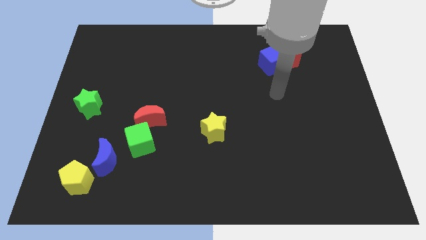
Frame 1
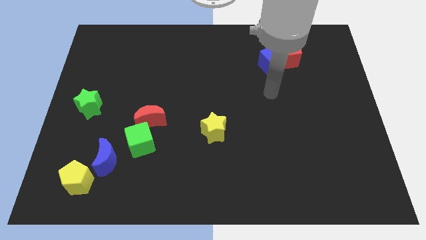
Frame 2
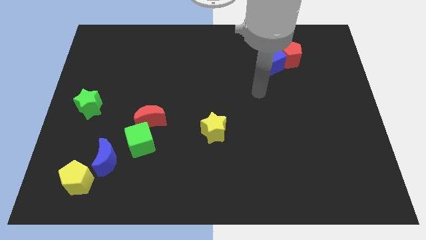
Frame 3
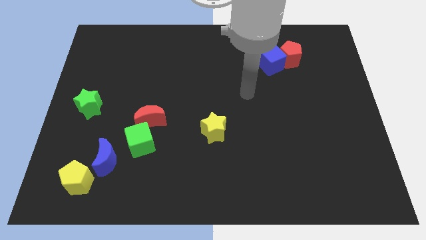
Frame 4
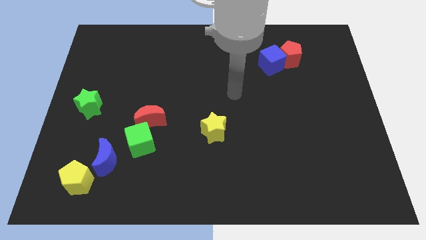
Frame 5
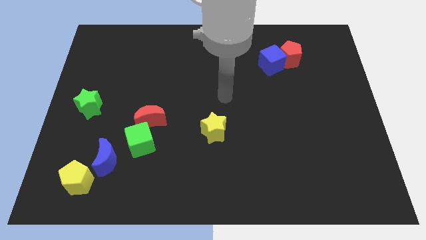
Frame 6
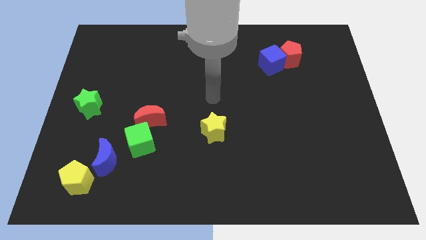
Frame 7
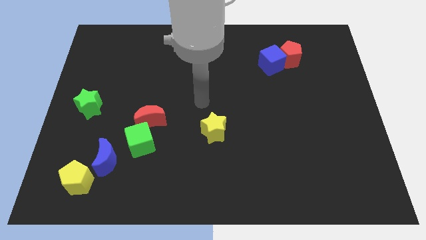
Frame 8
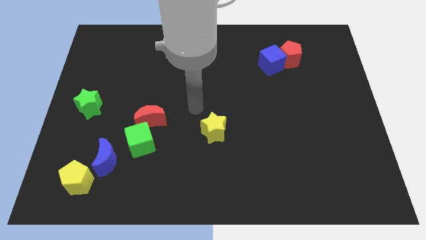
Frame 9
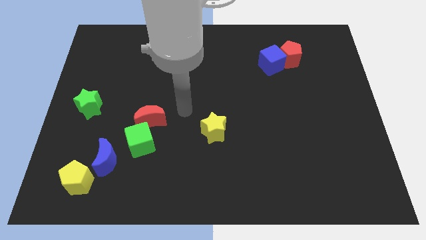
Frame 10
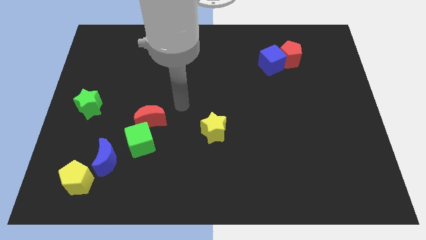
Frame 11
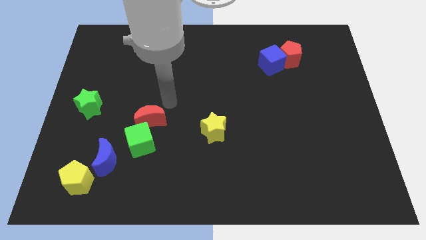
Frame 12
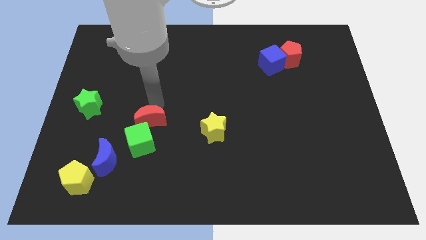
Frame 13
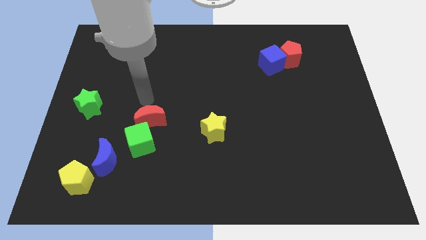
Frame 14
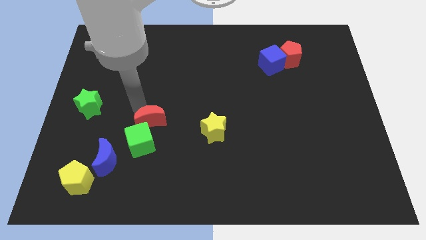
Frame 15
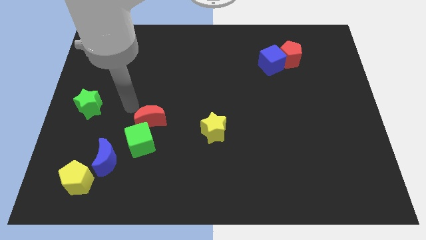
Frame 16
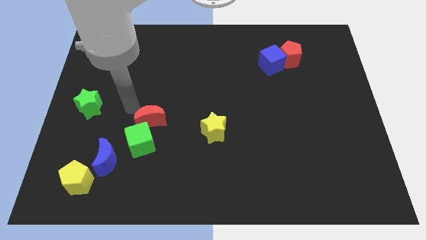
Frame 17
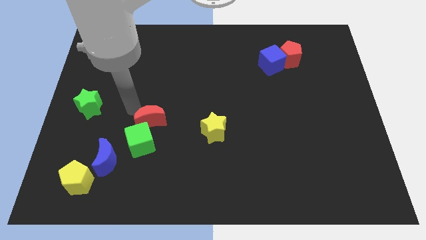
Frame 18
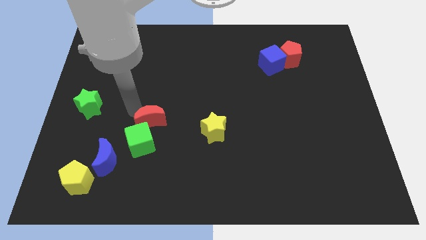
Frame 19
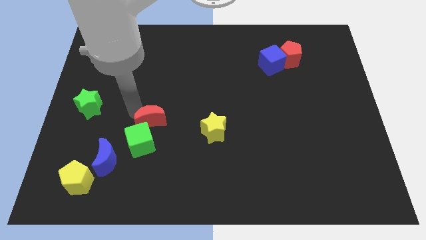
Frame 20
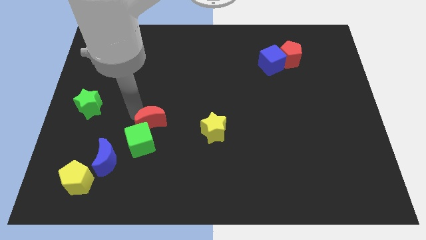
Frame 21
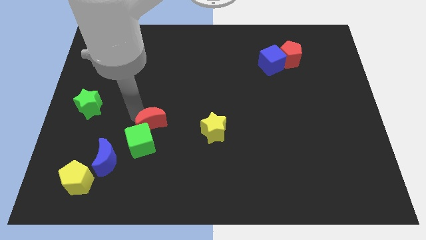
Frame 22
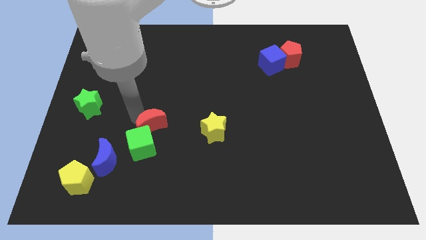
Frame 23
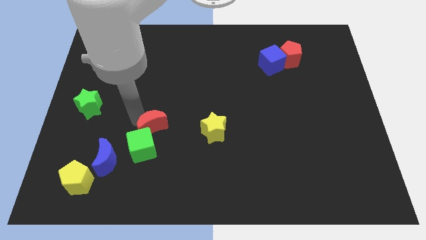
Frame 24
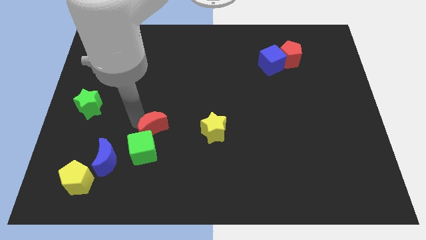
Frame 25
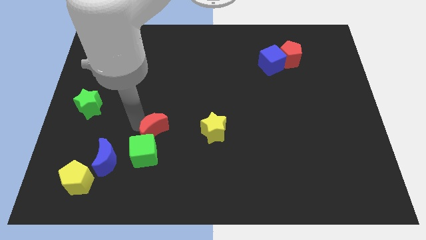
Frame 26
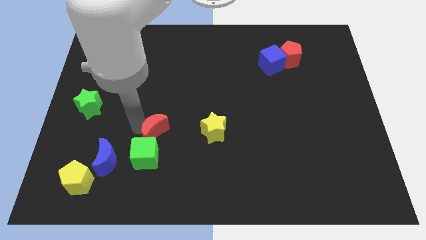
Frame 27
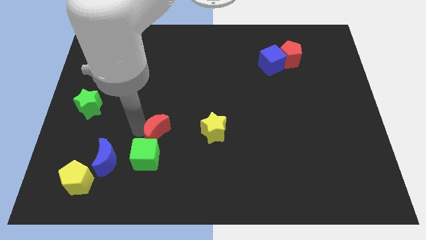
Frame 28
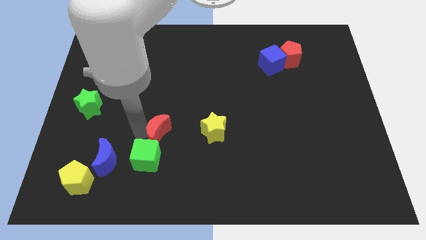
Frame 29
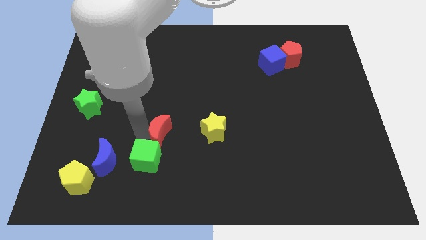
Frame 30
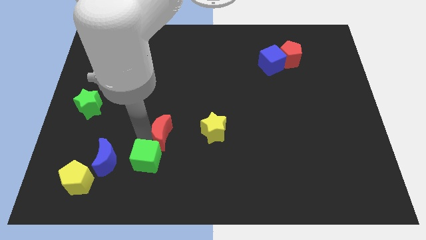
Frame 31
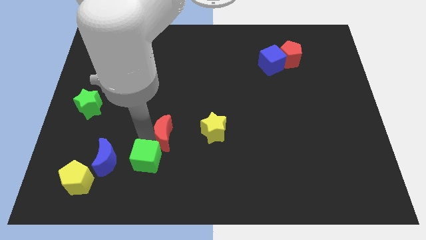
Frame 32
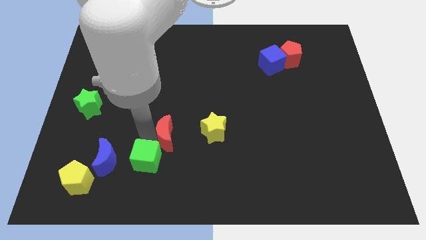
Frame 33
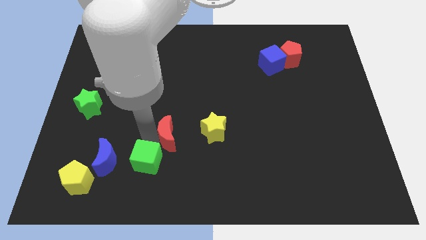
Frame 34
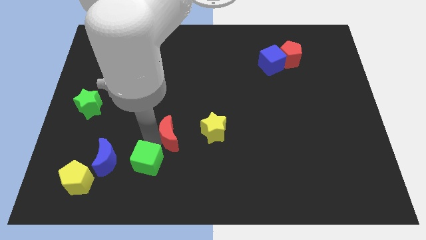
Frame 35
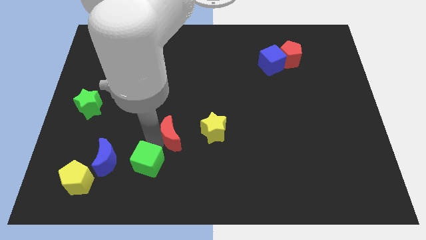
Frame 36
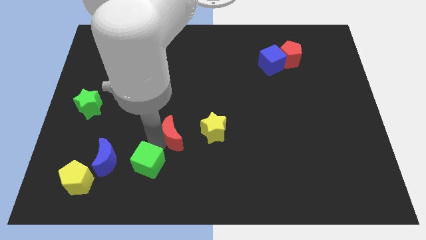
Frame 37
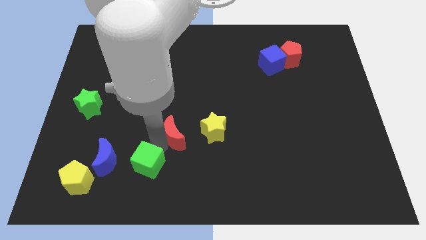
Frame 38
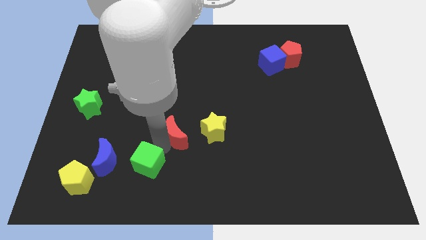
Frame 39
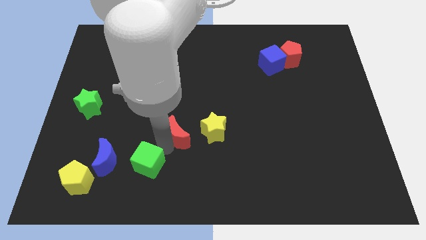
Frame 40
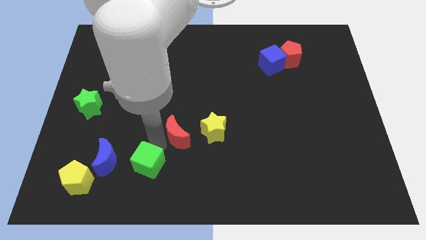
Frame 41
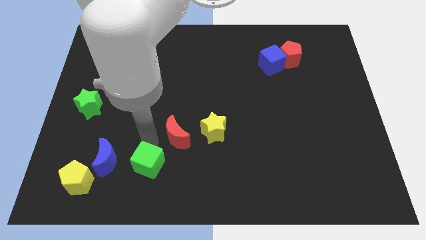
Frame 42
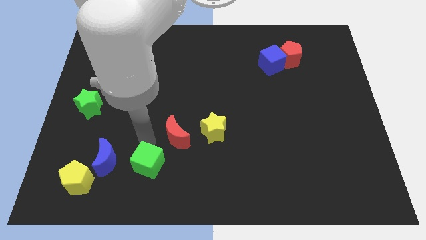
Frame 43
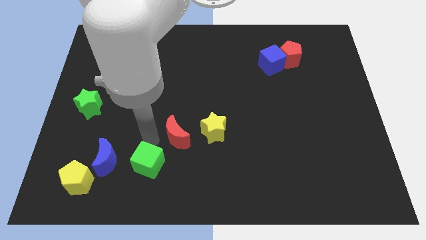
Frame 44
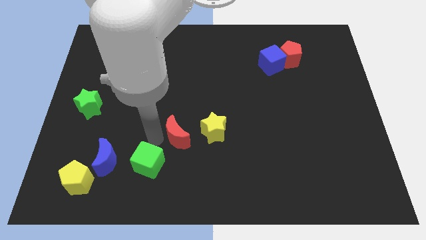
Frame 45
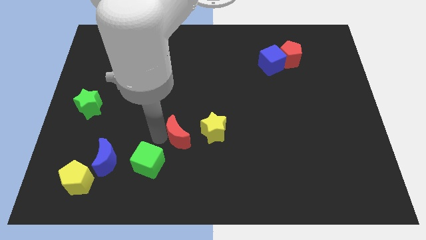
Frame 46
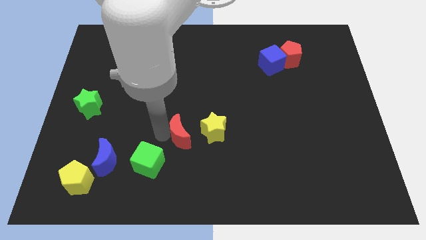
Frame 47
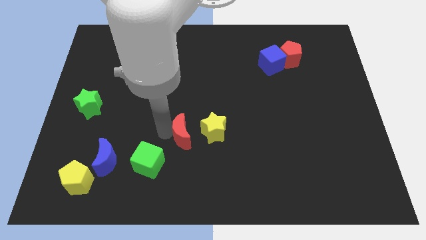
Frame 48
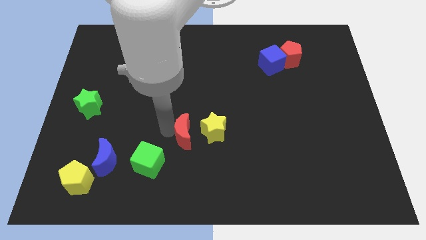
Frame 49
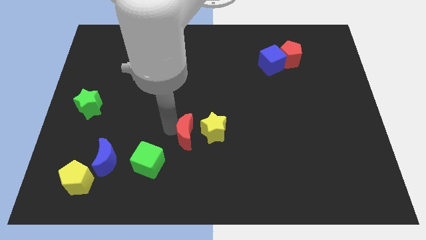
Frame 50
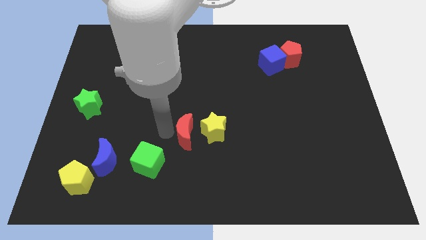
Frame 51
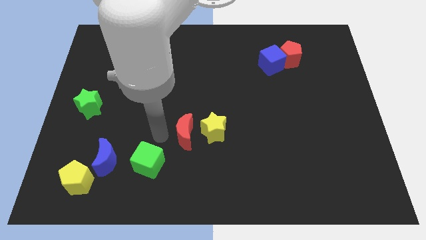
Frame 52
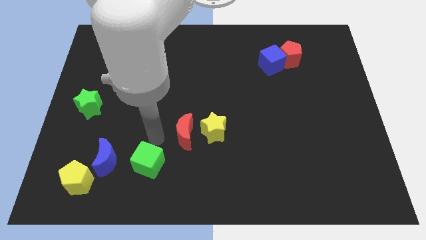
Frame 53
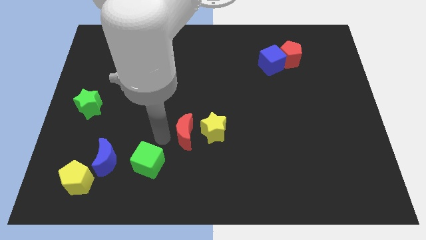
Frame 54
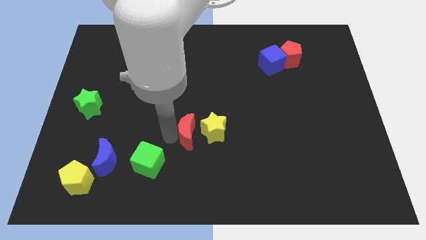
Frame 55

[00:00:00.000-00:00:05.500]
move the red moon towards the yellow star

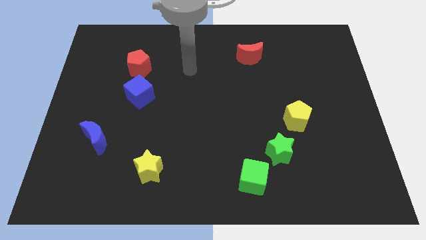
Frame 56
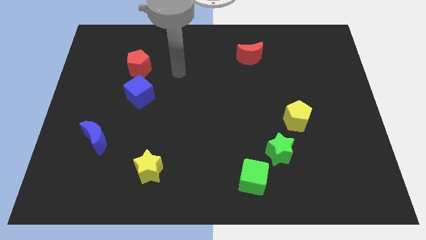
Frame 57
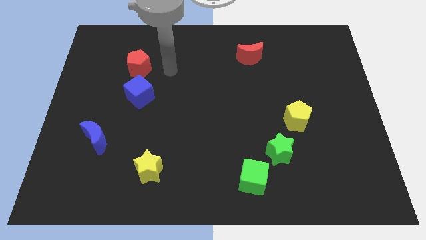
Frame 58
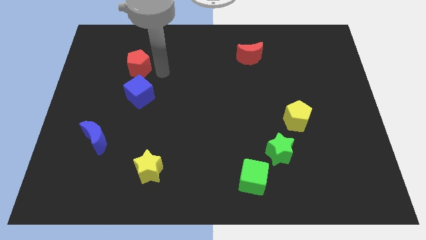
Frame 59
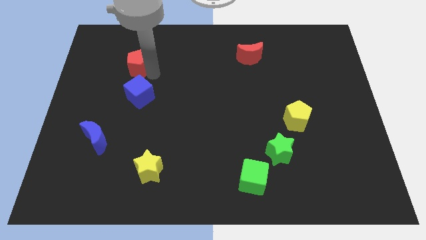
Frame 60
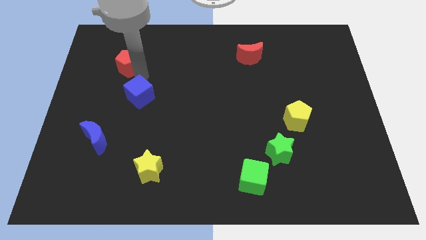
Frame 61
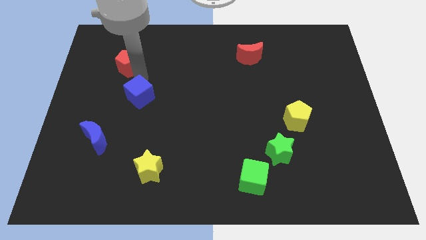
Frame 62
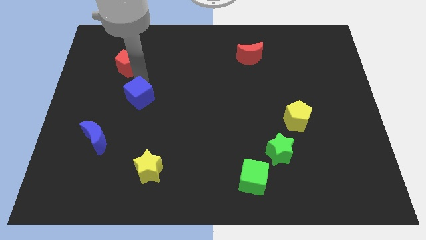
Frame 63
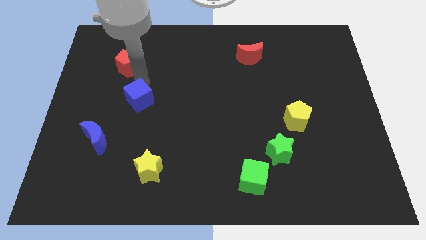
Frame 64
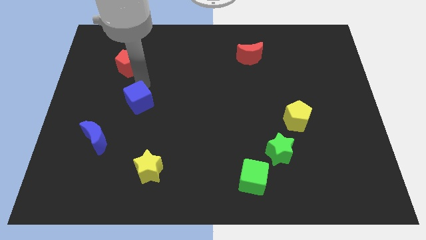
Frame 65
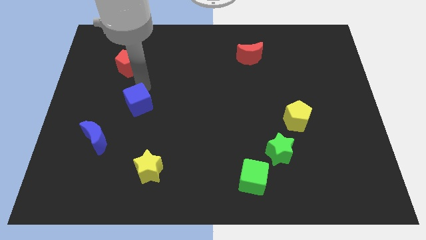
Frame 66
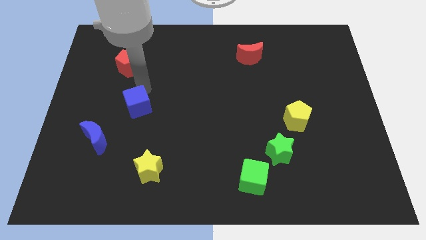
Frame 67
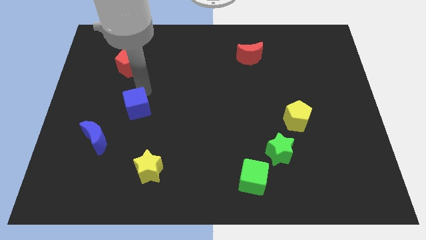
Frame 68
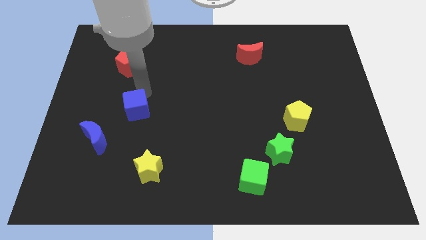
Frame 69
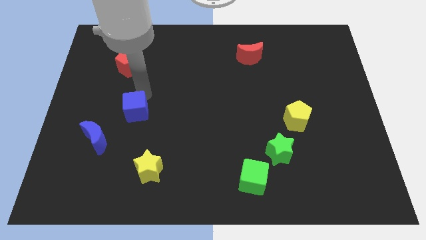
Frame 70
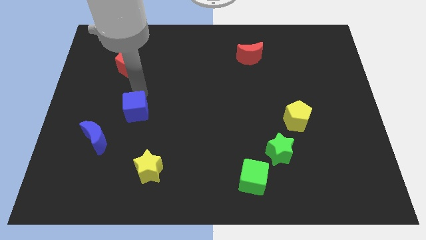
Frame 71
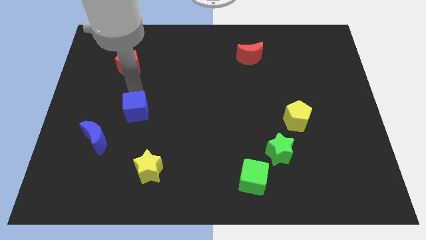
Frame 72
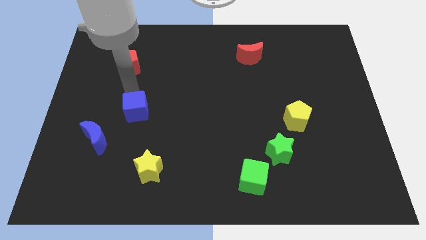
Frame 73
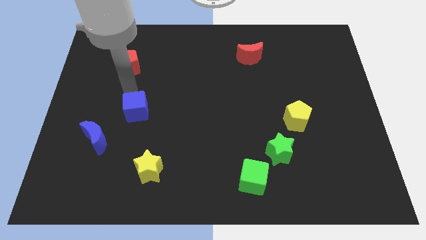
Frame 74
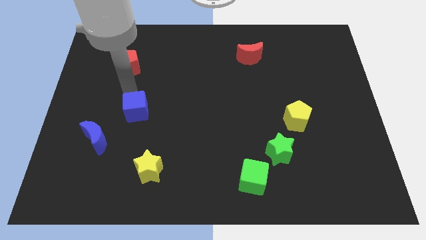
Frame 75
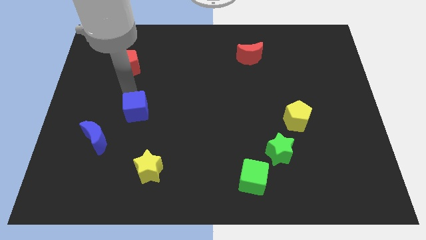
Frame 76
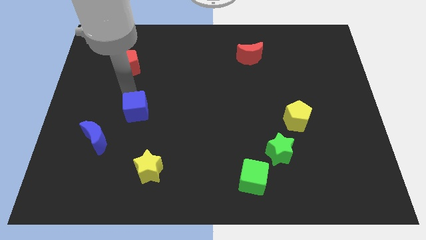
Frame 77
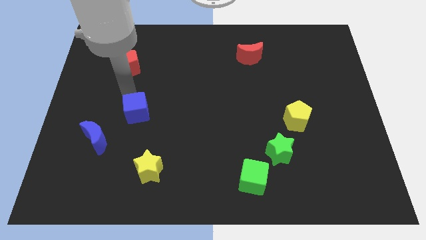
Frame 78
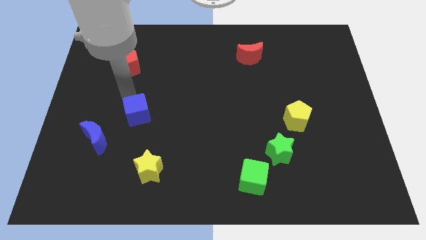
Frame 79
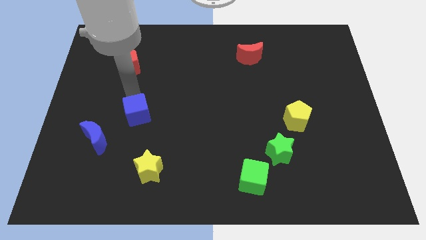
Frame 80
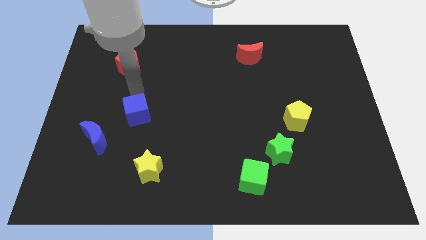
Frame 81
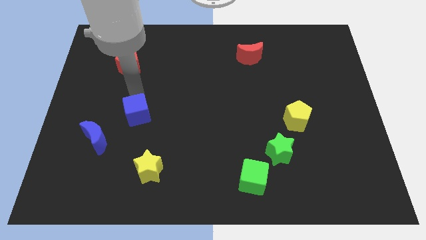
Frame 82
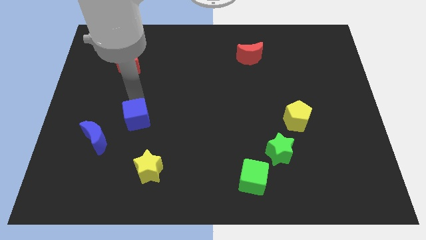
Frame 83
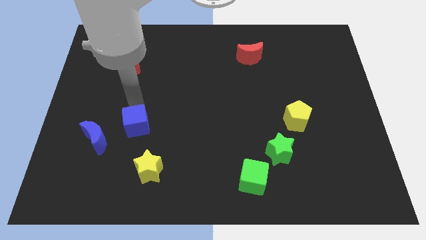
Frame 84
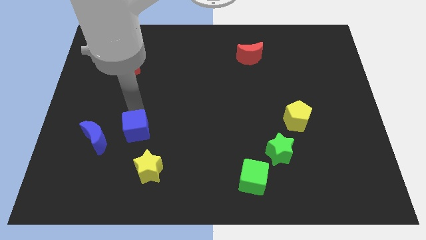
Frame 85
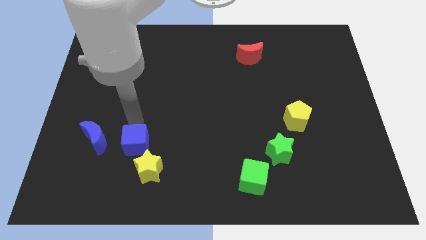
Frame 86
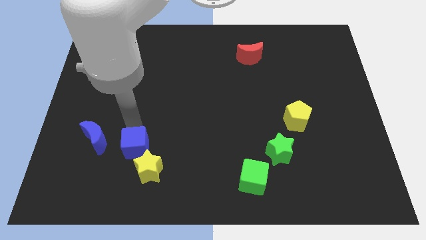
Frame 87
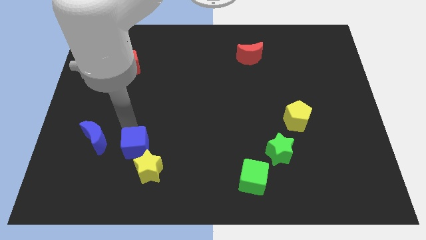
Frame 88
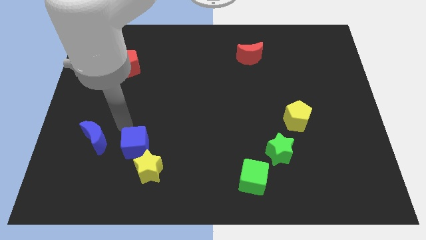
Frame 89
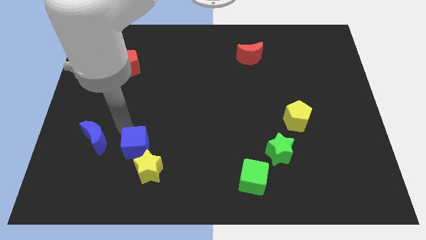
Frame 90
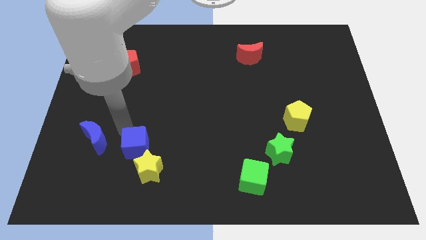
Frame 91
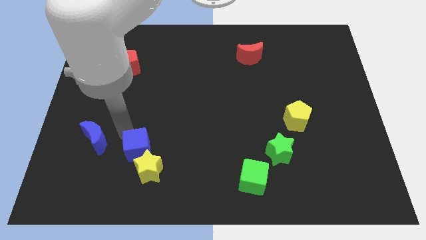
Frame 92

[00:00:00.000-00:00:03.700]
move the blue cube next to the yellow star
